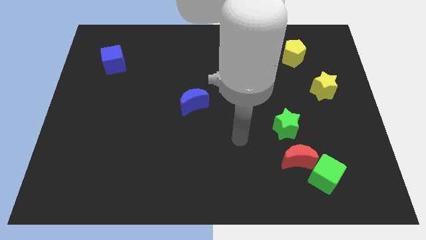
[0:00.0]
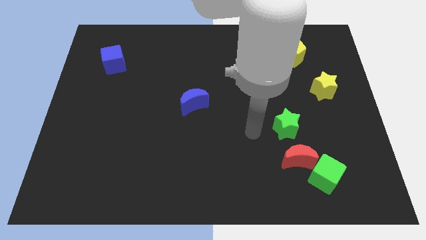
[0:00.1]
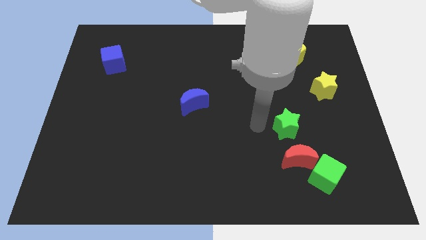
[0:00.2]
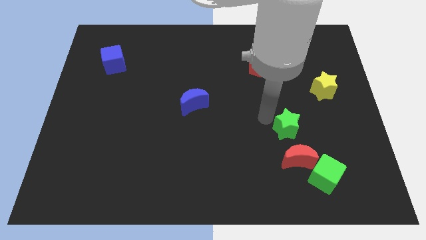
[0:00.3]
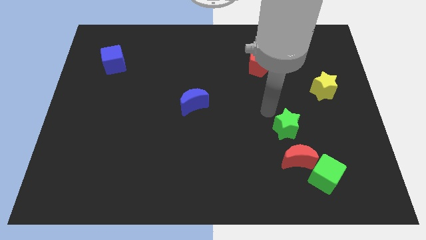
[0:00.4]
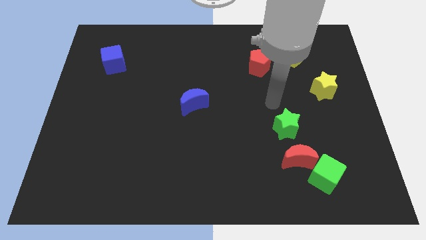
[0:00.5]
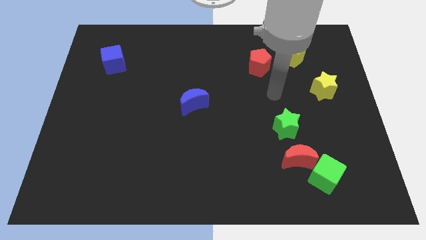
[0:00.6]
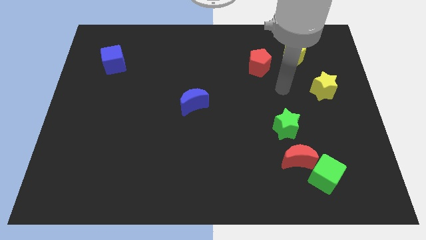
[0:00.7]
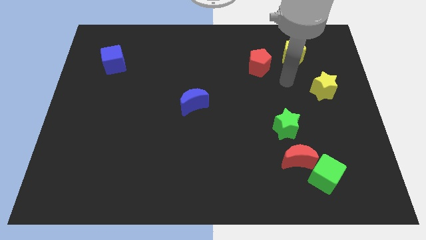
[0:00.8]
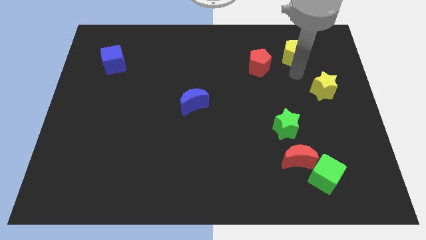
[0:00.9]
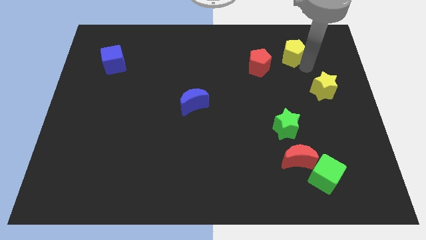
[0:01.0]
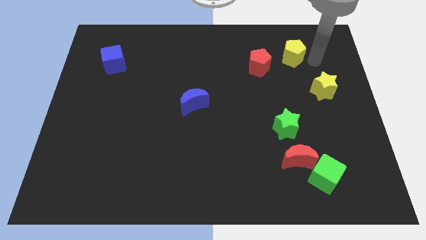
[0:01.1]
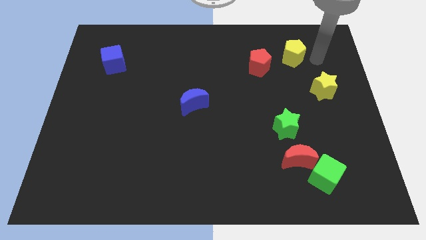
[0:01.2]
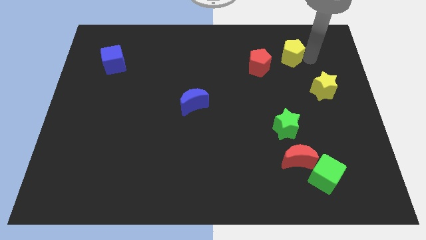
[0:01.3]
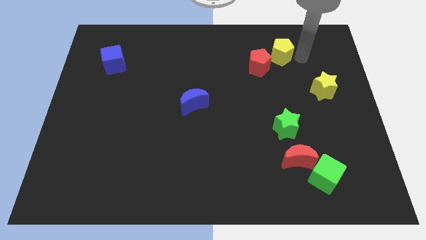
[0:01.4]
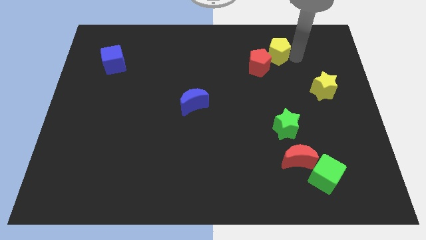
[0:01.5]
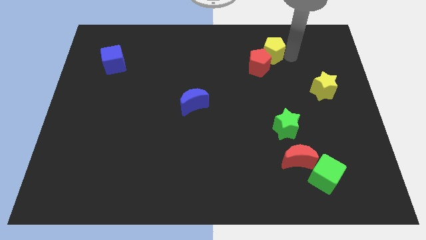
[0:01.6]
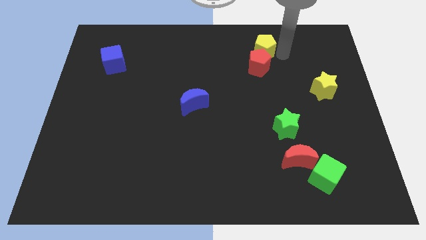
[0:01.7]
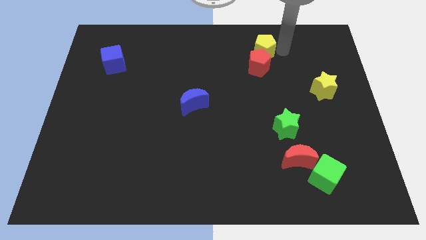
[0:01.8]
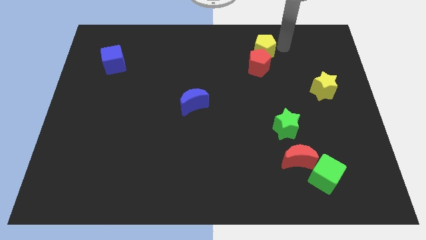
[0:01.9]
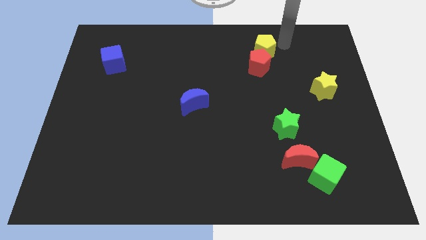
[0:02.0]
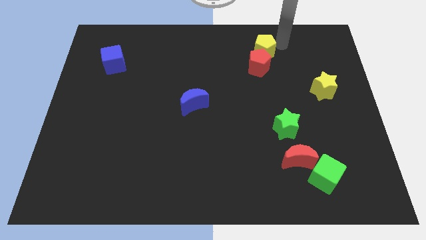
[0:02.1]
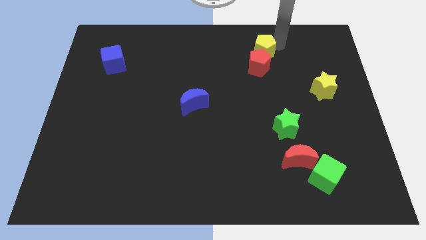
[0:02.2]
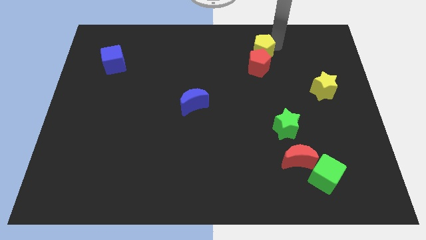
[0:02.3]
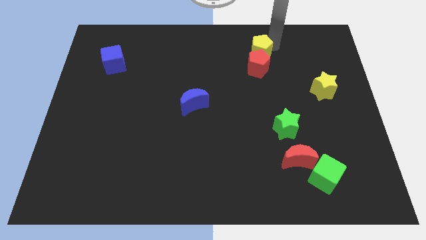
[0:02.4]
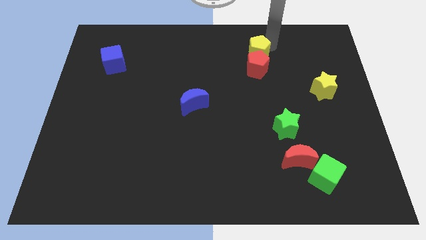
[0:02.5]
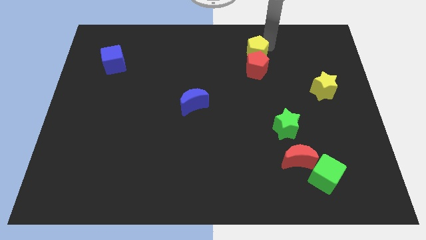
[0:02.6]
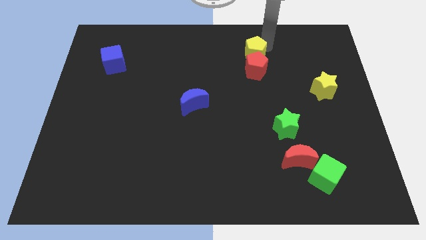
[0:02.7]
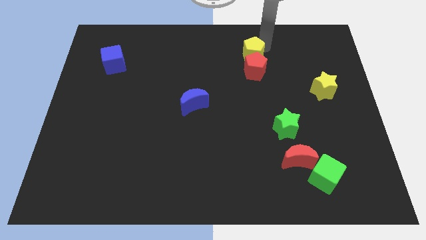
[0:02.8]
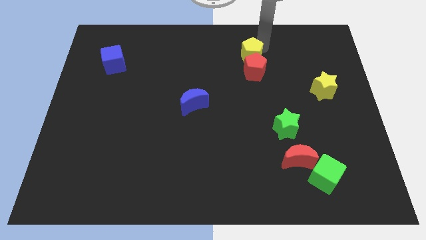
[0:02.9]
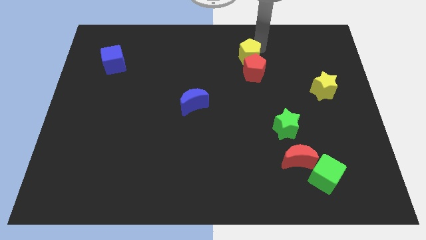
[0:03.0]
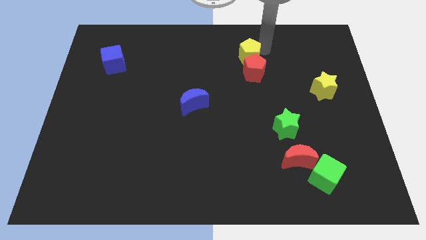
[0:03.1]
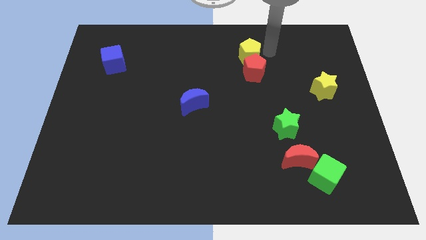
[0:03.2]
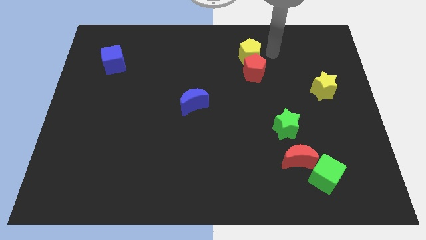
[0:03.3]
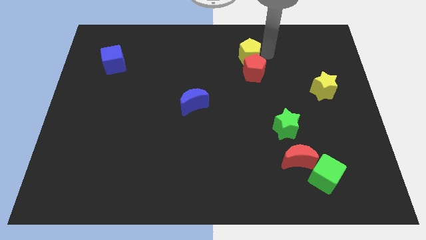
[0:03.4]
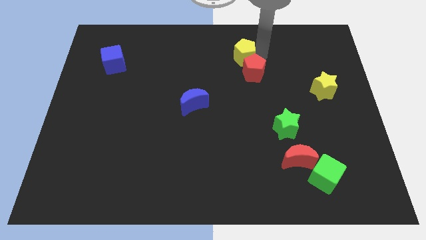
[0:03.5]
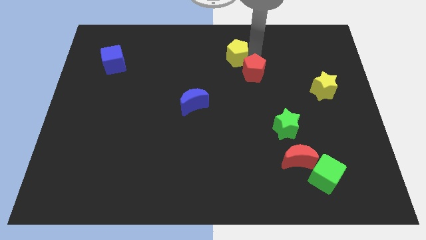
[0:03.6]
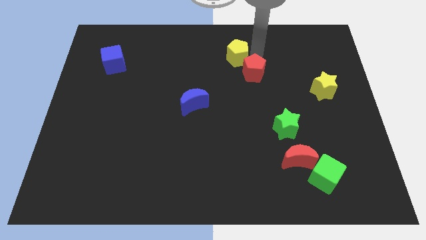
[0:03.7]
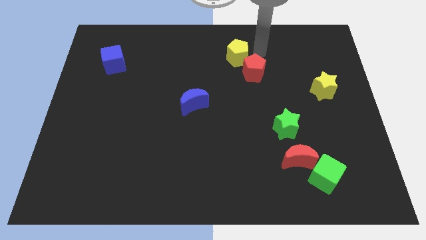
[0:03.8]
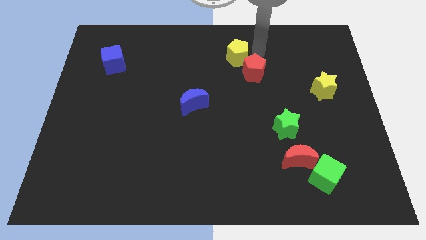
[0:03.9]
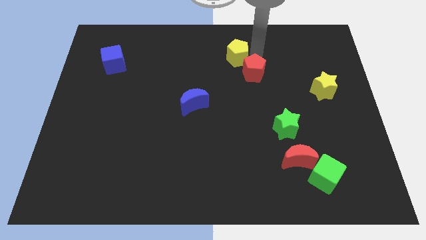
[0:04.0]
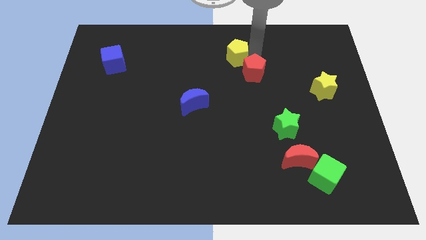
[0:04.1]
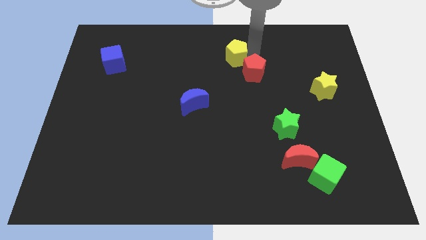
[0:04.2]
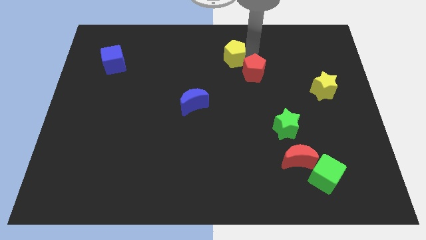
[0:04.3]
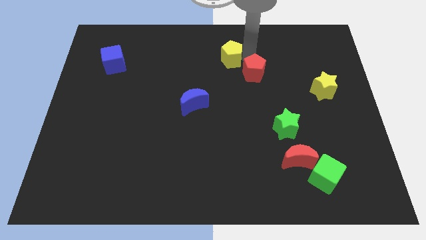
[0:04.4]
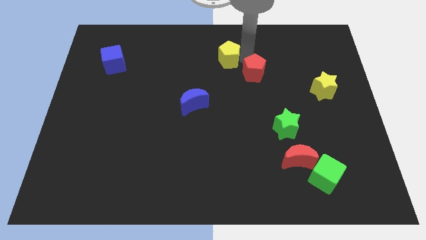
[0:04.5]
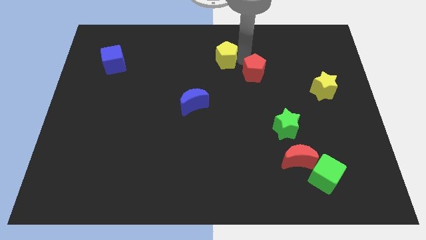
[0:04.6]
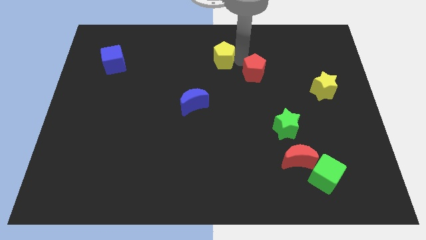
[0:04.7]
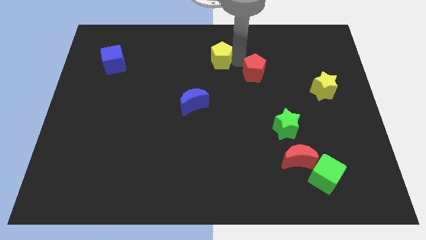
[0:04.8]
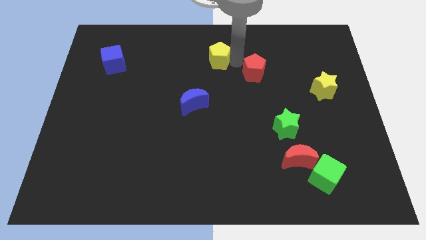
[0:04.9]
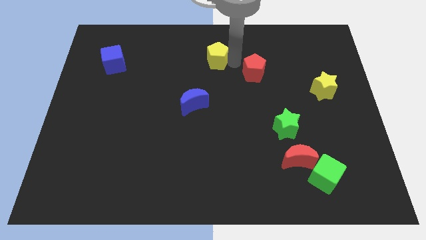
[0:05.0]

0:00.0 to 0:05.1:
slide the yellow pentagon to the left

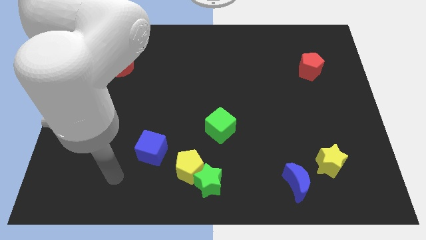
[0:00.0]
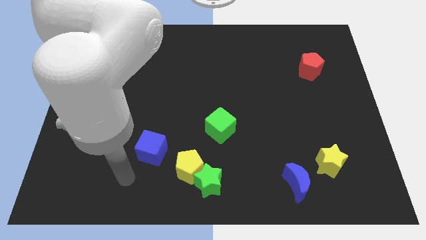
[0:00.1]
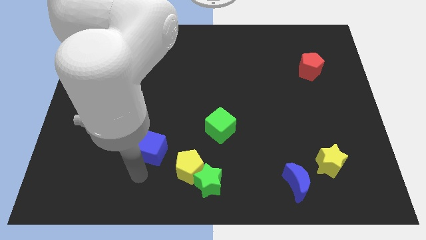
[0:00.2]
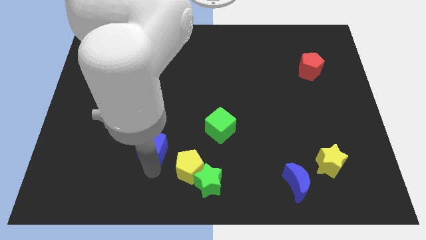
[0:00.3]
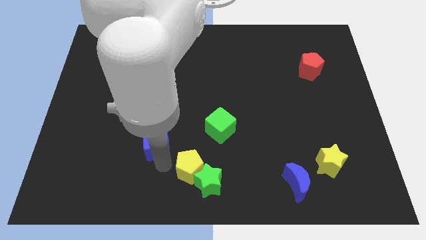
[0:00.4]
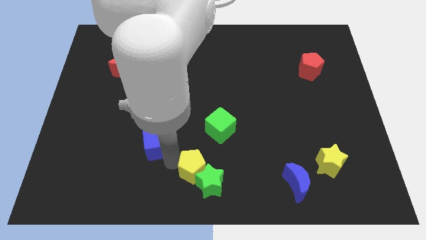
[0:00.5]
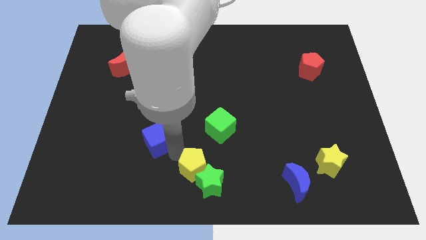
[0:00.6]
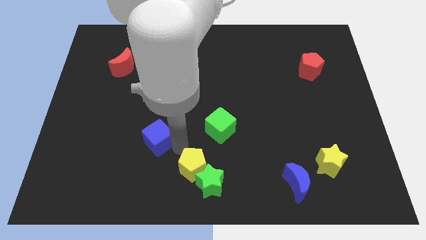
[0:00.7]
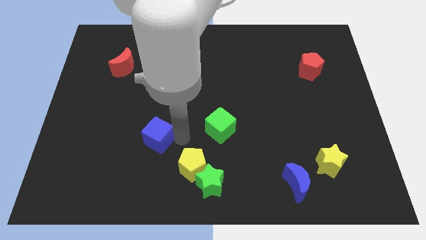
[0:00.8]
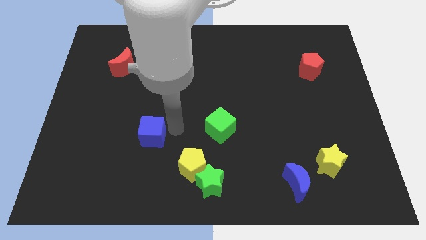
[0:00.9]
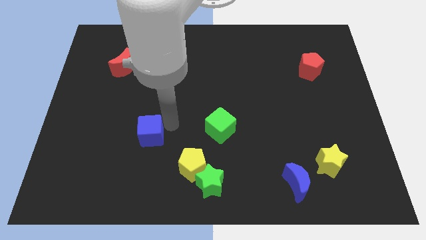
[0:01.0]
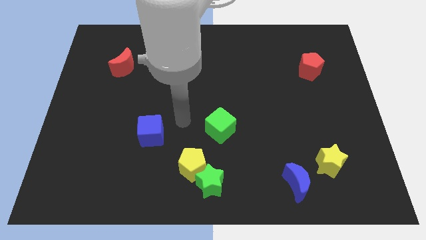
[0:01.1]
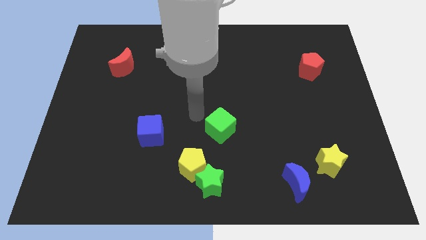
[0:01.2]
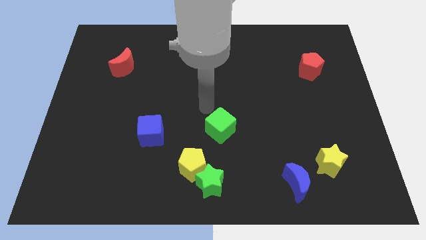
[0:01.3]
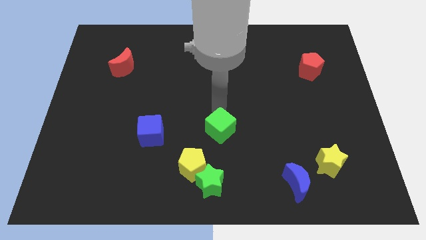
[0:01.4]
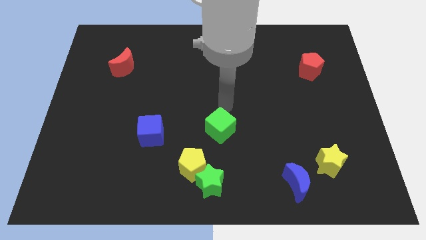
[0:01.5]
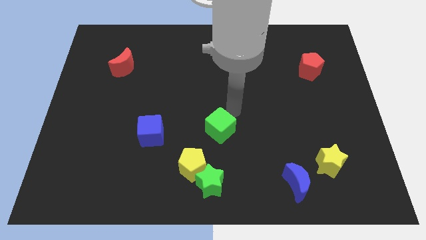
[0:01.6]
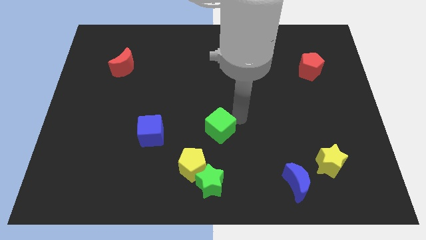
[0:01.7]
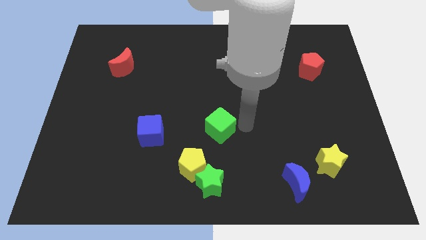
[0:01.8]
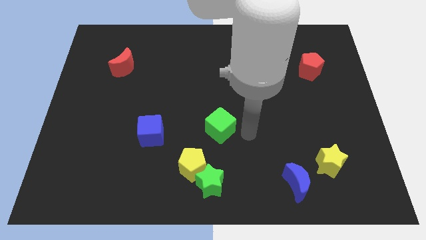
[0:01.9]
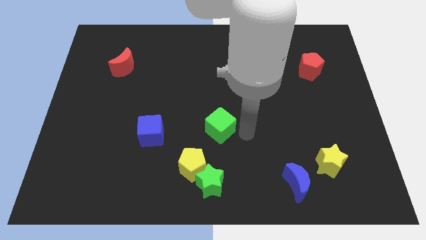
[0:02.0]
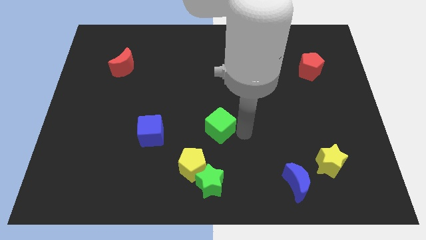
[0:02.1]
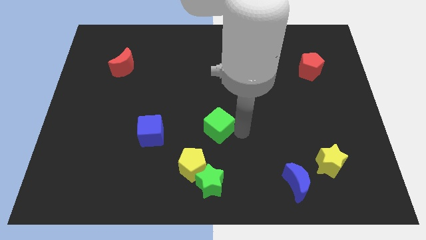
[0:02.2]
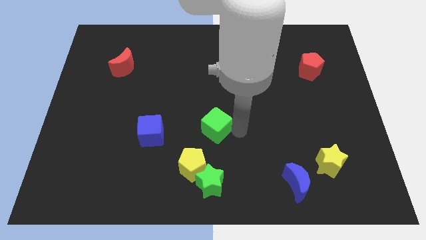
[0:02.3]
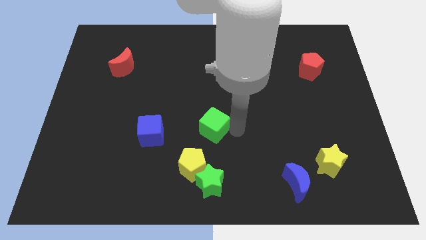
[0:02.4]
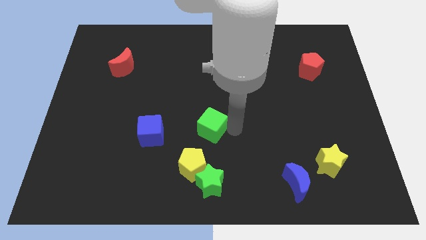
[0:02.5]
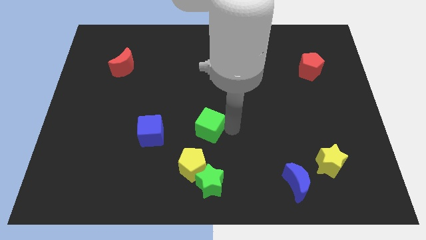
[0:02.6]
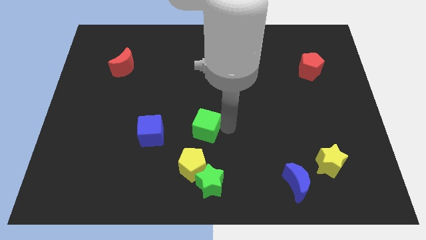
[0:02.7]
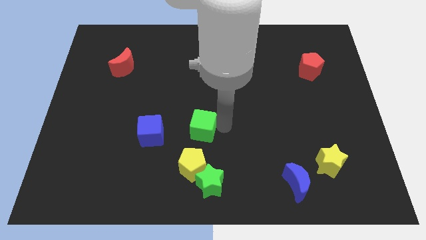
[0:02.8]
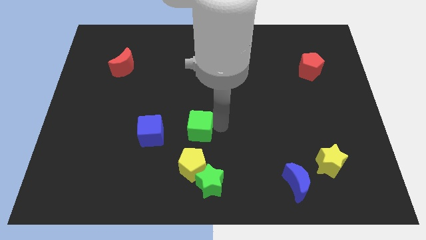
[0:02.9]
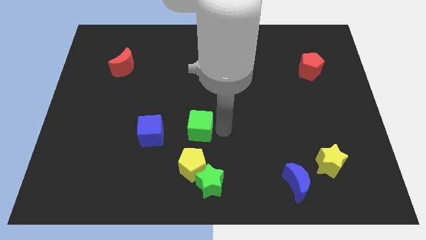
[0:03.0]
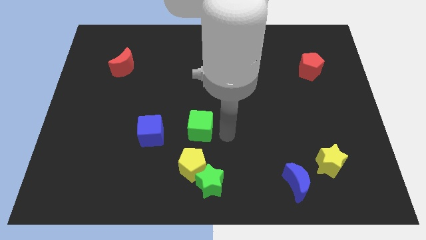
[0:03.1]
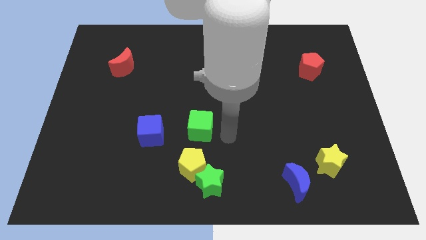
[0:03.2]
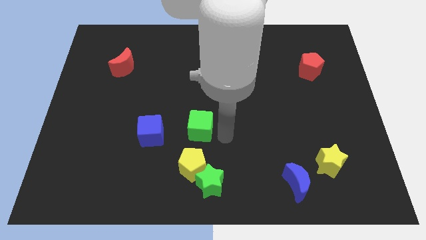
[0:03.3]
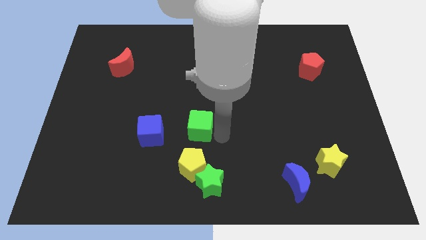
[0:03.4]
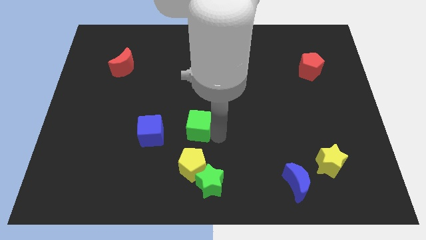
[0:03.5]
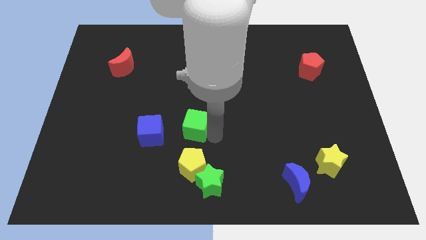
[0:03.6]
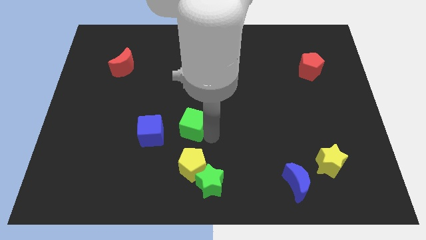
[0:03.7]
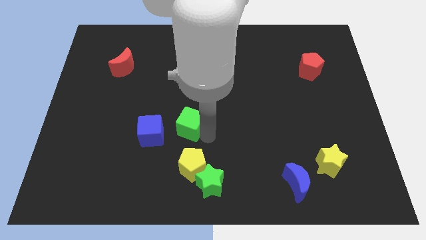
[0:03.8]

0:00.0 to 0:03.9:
slide the green cube left somewhat
